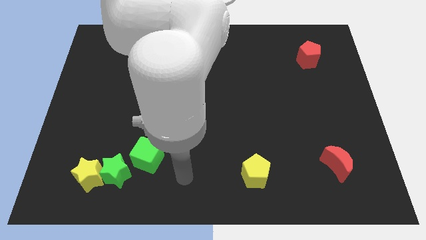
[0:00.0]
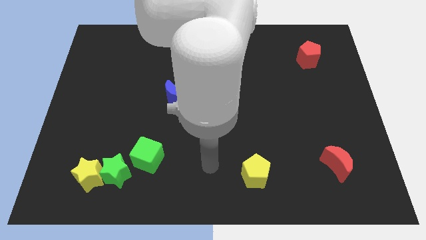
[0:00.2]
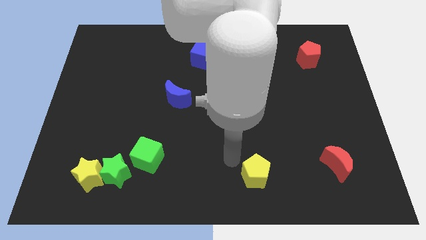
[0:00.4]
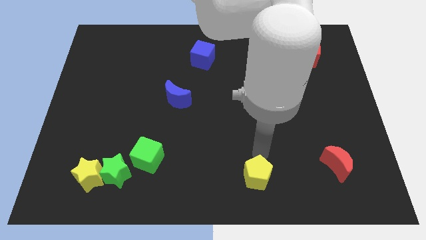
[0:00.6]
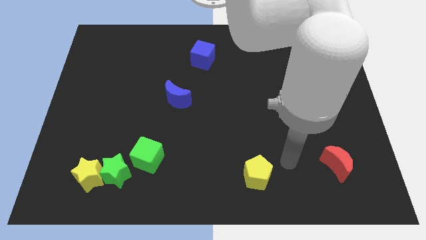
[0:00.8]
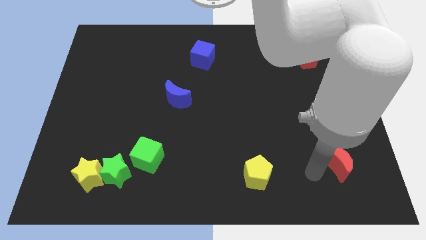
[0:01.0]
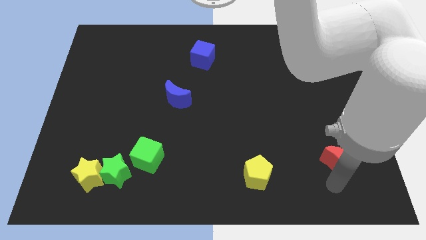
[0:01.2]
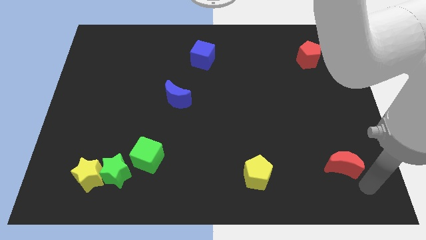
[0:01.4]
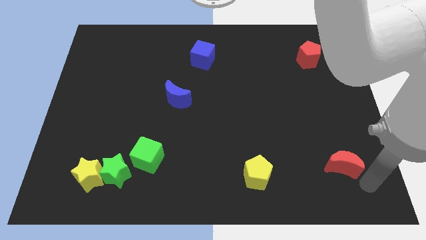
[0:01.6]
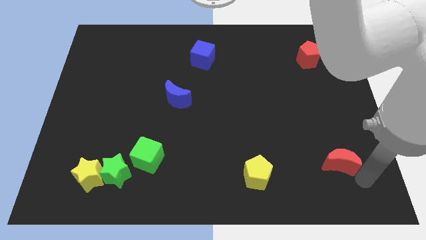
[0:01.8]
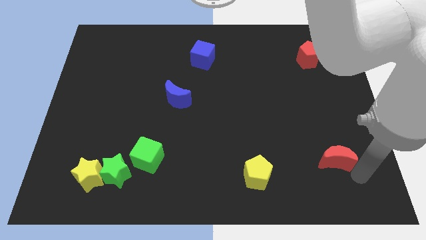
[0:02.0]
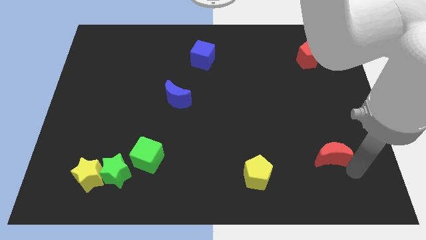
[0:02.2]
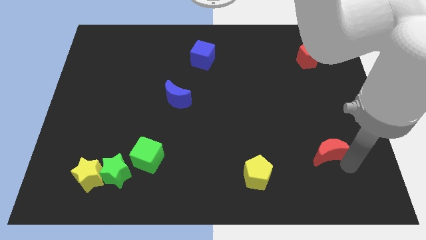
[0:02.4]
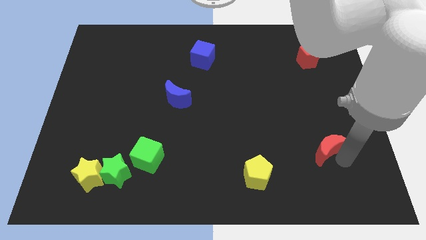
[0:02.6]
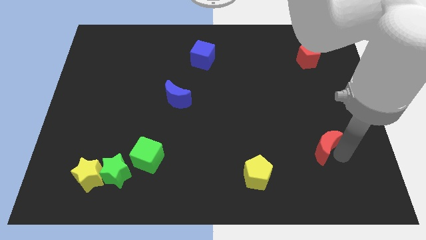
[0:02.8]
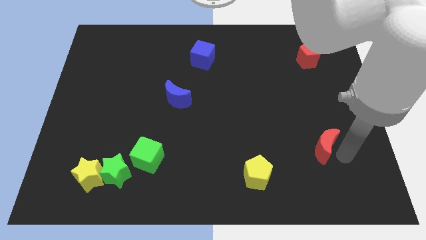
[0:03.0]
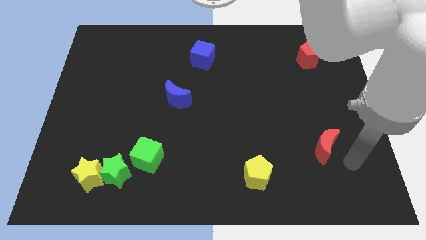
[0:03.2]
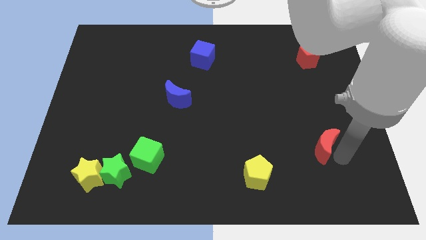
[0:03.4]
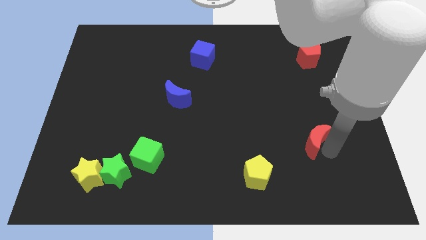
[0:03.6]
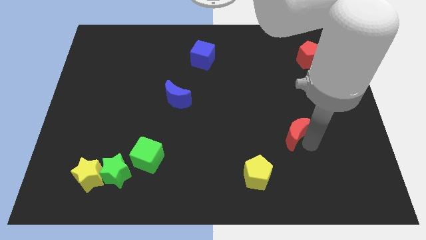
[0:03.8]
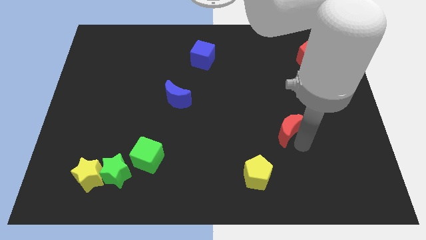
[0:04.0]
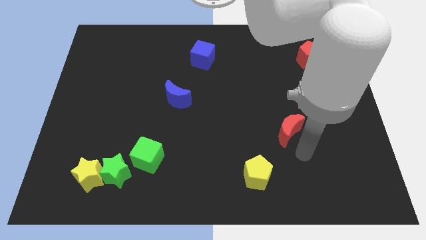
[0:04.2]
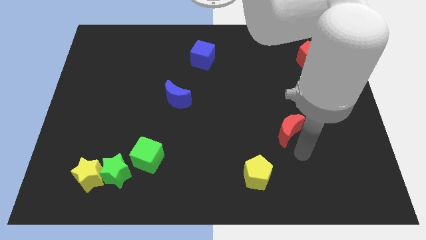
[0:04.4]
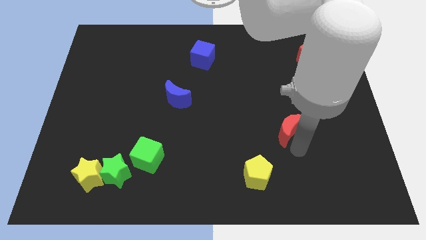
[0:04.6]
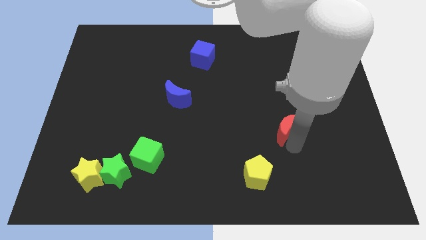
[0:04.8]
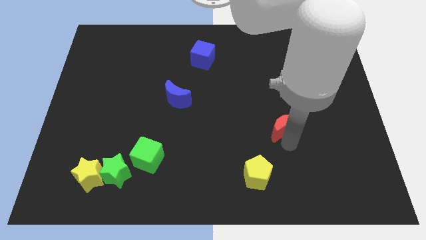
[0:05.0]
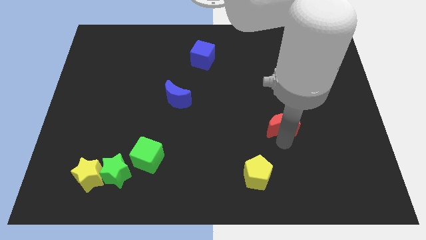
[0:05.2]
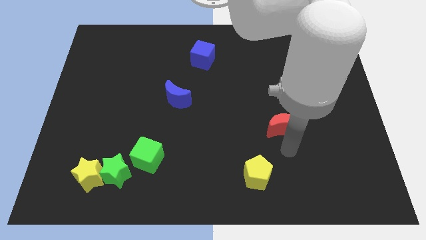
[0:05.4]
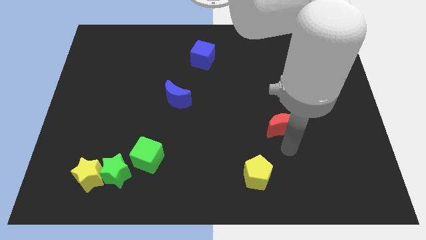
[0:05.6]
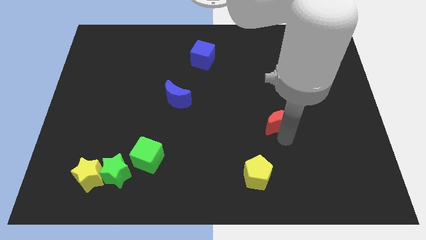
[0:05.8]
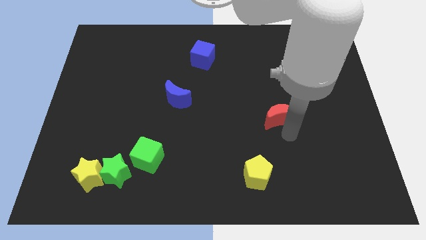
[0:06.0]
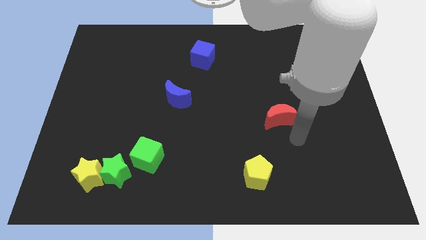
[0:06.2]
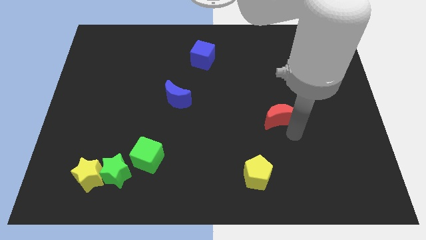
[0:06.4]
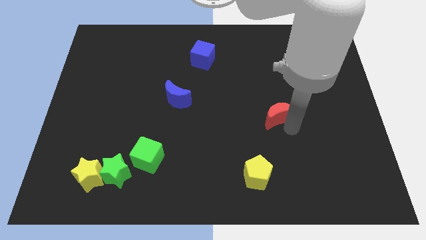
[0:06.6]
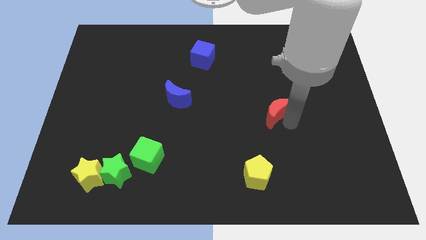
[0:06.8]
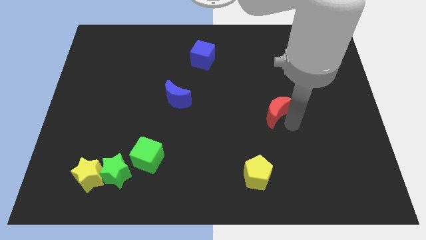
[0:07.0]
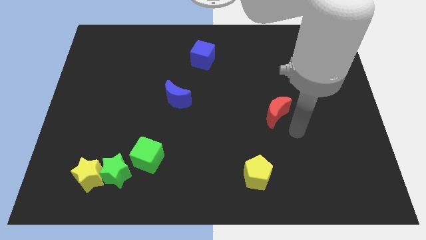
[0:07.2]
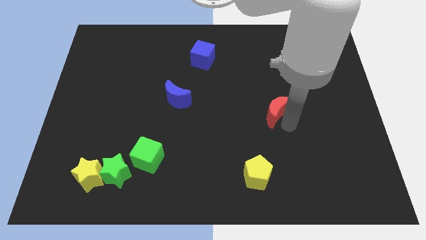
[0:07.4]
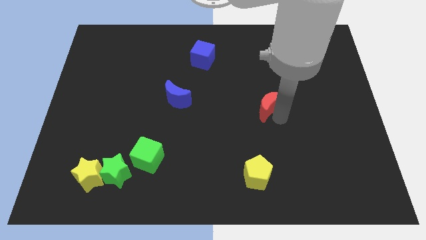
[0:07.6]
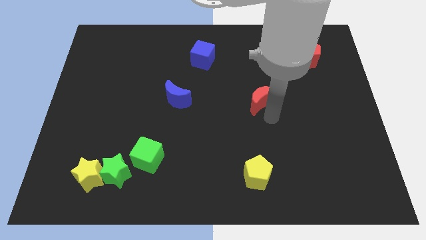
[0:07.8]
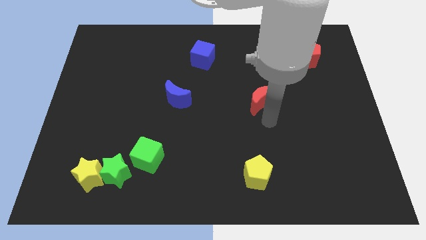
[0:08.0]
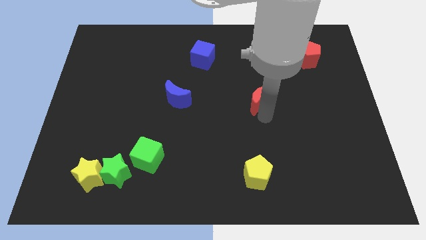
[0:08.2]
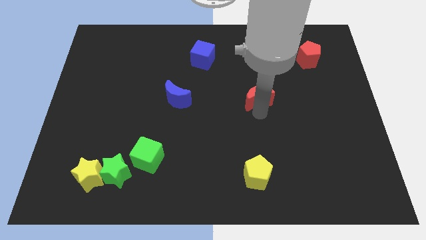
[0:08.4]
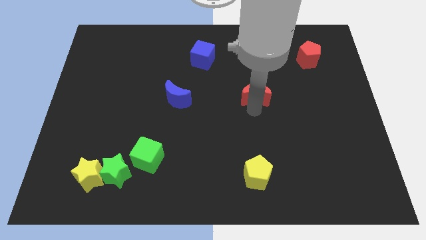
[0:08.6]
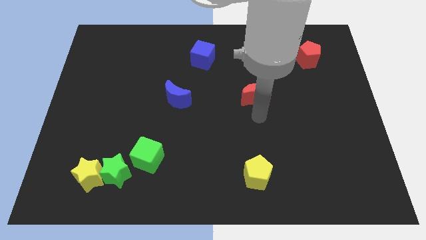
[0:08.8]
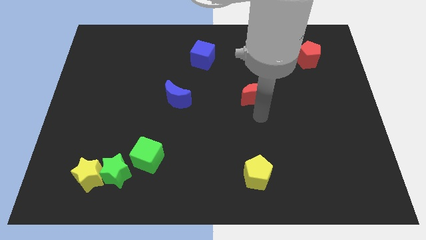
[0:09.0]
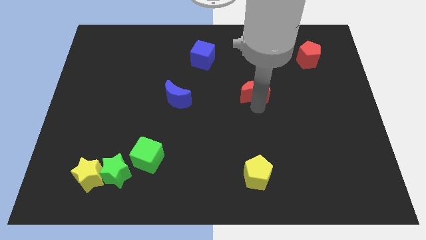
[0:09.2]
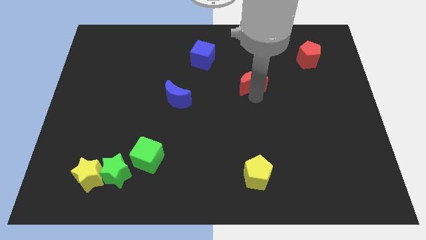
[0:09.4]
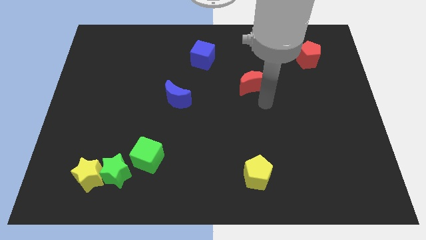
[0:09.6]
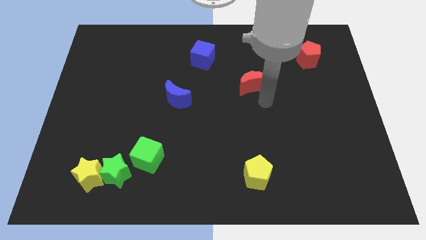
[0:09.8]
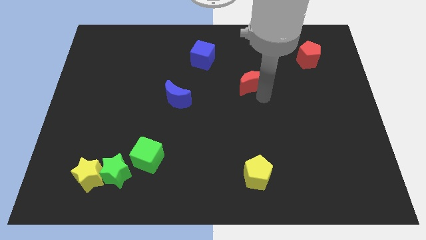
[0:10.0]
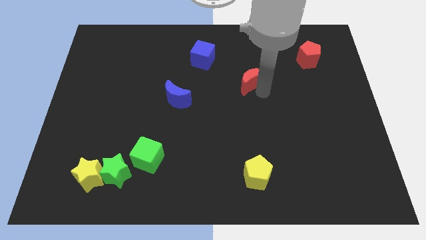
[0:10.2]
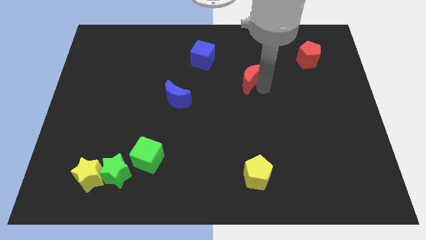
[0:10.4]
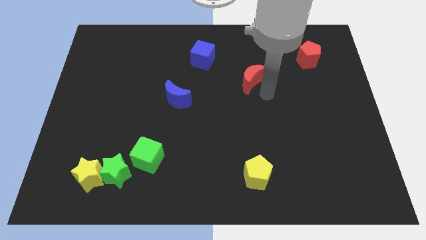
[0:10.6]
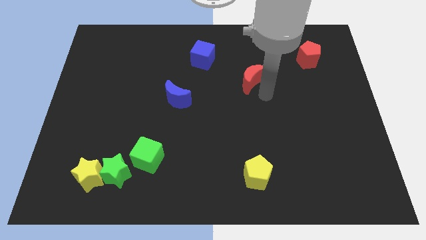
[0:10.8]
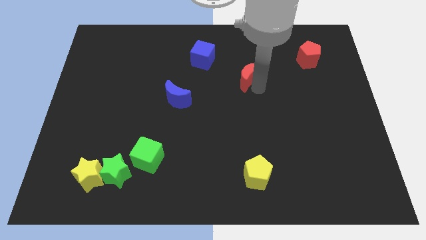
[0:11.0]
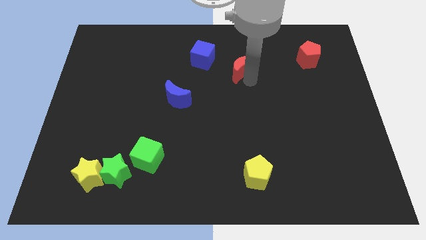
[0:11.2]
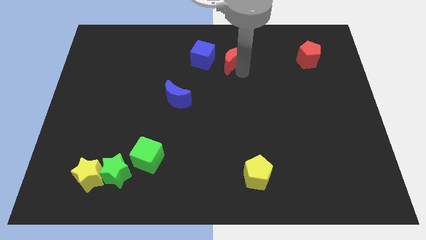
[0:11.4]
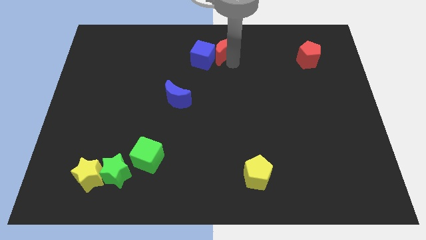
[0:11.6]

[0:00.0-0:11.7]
slide the red moon to the top side
